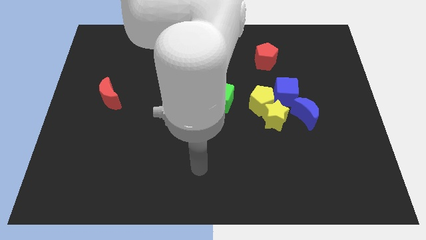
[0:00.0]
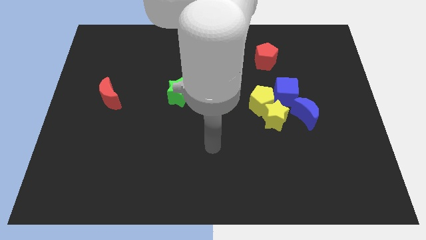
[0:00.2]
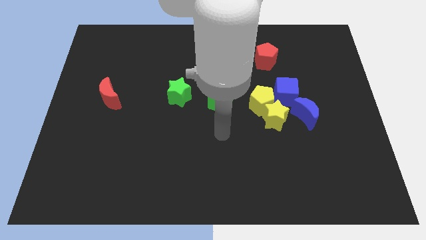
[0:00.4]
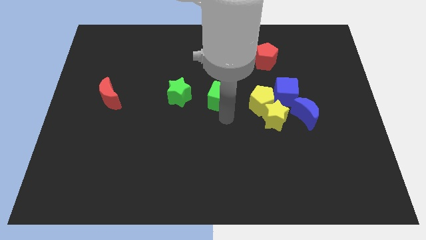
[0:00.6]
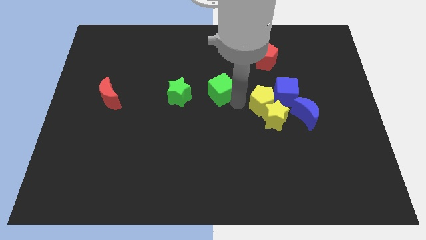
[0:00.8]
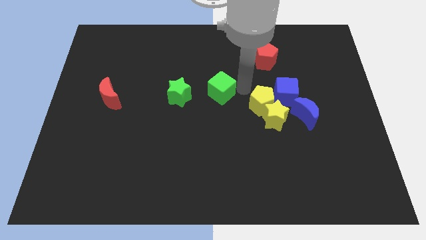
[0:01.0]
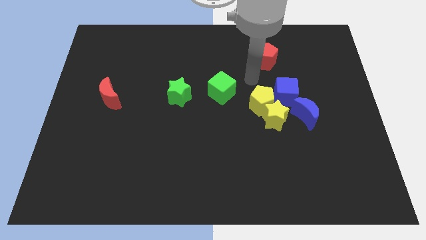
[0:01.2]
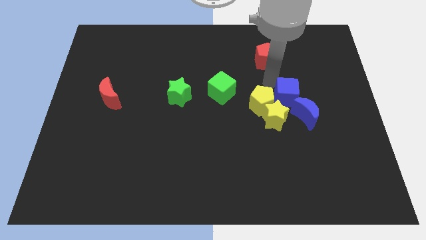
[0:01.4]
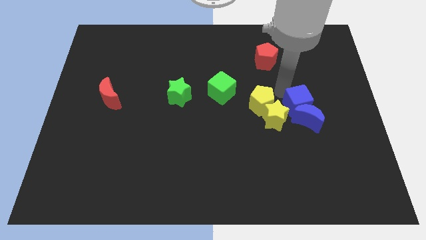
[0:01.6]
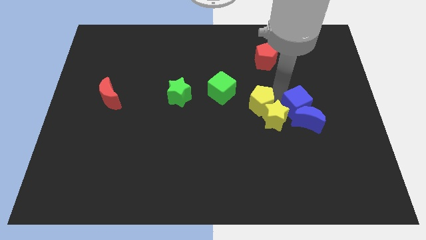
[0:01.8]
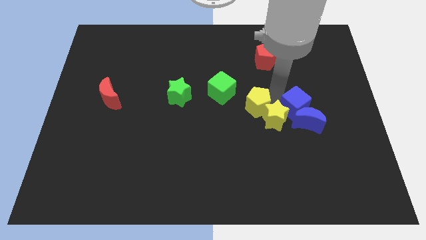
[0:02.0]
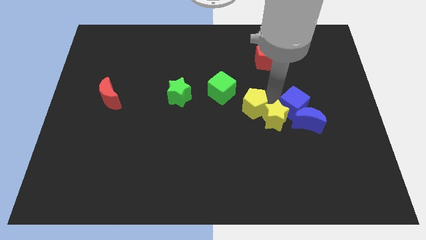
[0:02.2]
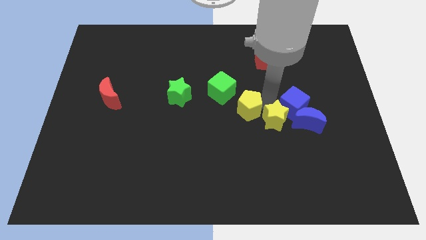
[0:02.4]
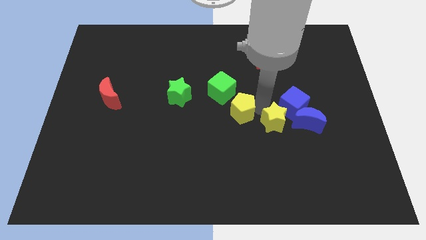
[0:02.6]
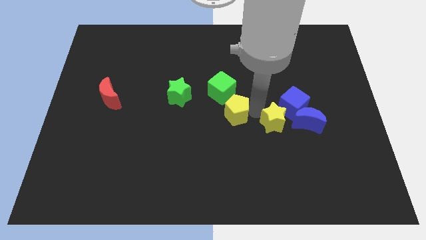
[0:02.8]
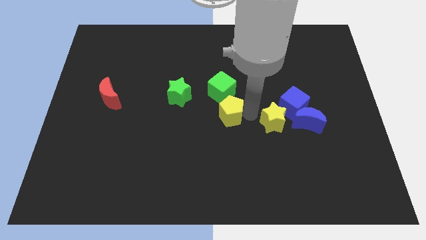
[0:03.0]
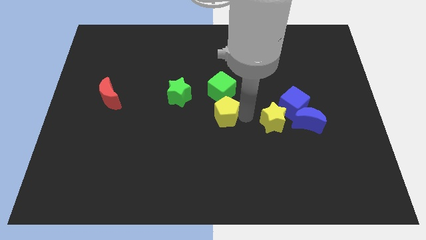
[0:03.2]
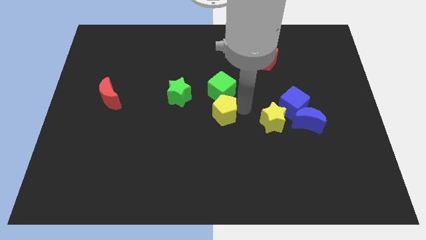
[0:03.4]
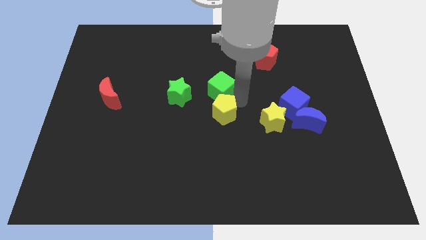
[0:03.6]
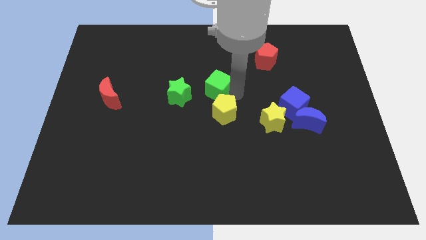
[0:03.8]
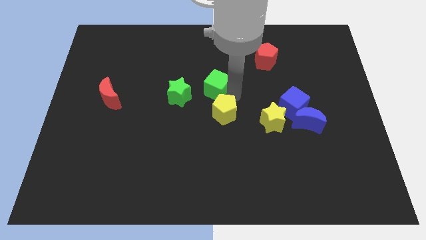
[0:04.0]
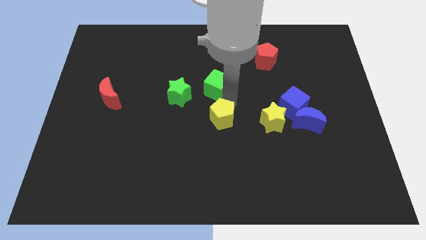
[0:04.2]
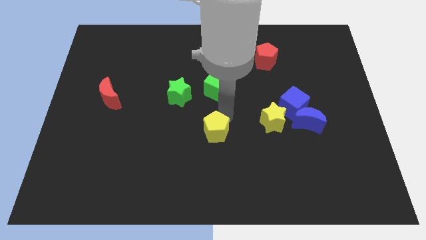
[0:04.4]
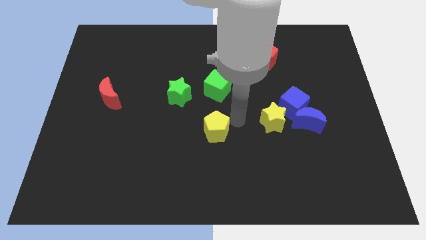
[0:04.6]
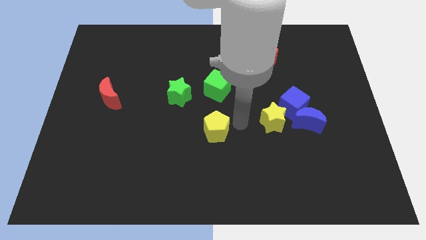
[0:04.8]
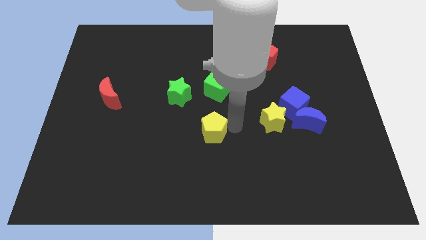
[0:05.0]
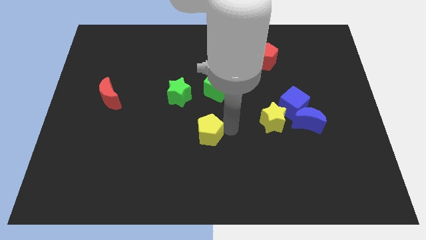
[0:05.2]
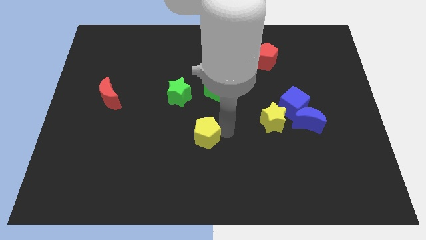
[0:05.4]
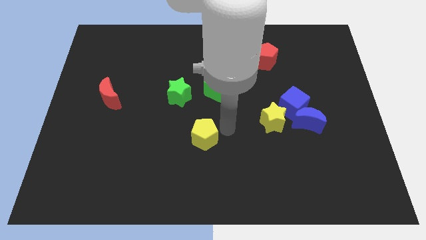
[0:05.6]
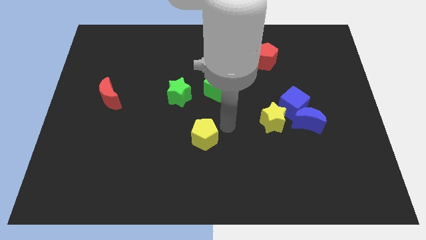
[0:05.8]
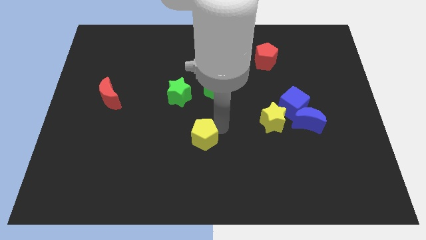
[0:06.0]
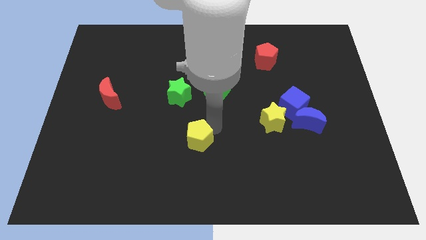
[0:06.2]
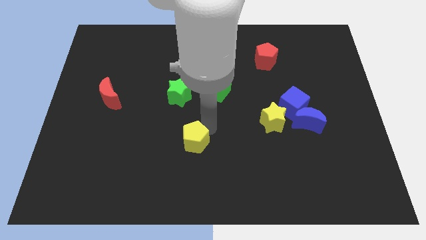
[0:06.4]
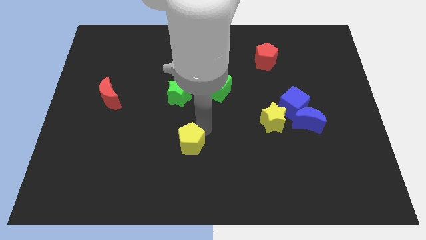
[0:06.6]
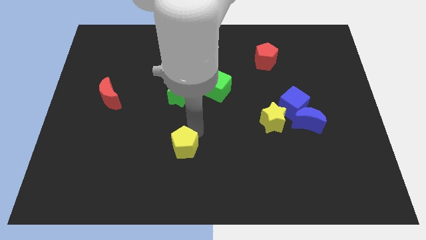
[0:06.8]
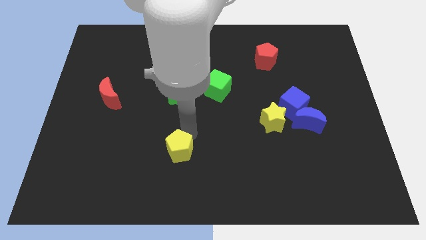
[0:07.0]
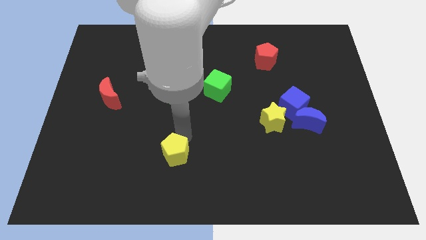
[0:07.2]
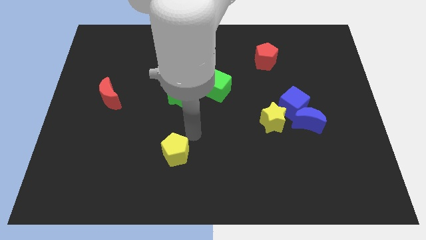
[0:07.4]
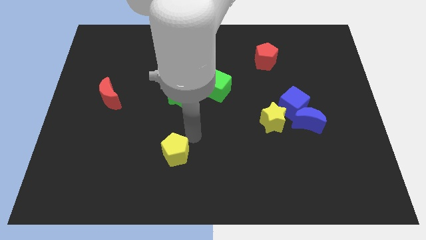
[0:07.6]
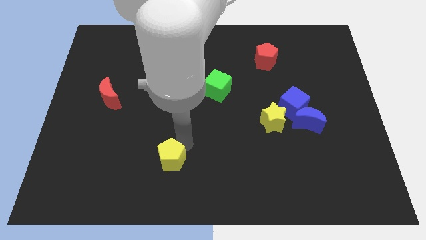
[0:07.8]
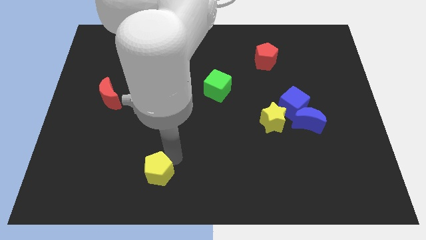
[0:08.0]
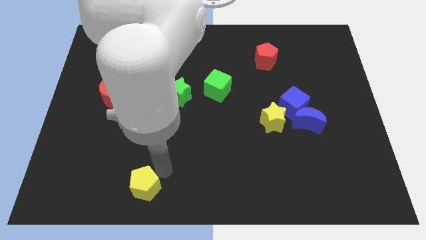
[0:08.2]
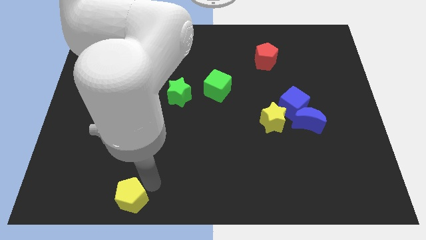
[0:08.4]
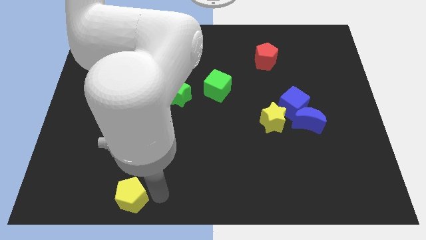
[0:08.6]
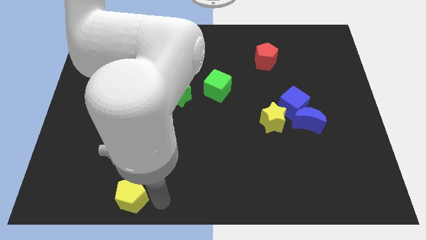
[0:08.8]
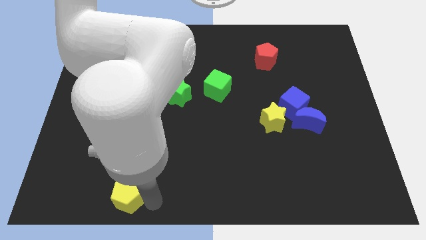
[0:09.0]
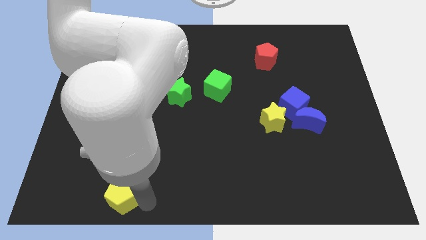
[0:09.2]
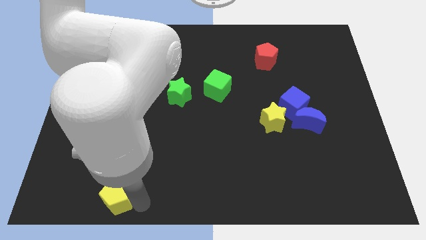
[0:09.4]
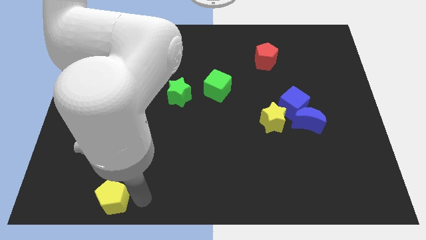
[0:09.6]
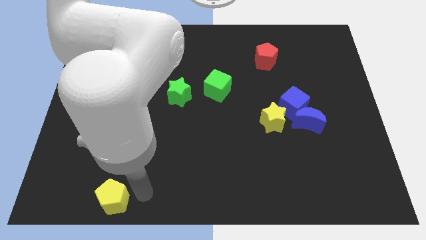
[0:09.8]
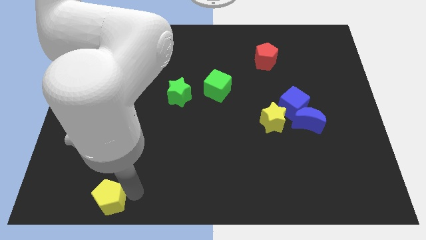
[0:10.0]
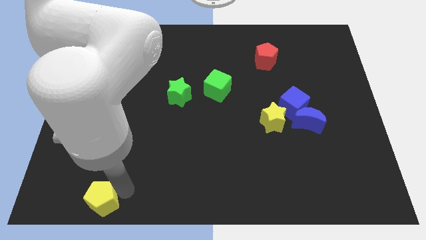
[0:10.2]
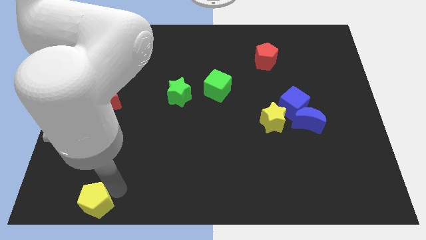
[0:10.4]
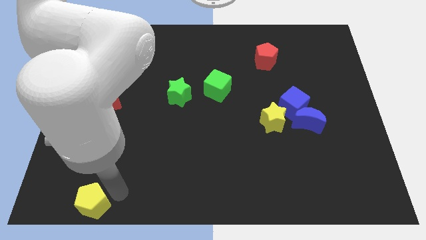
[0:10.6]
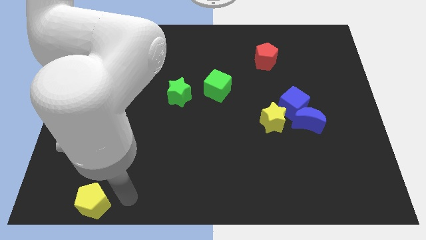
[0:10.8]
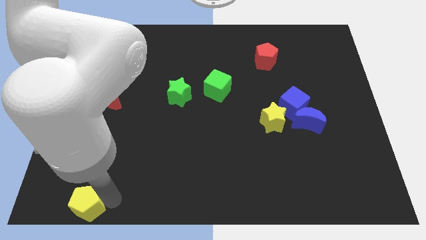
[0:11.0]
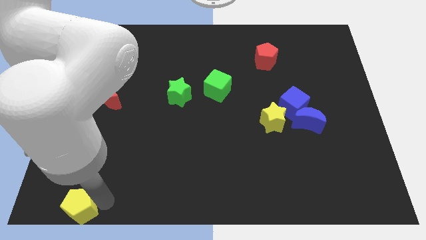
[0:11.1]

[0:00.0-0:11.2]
push the yellow pentagon to the bottom left of the board

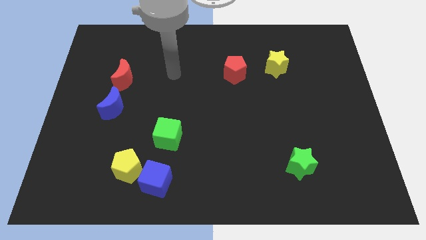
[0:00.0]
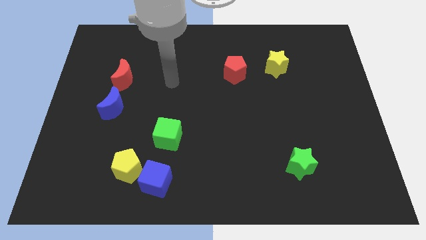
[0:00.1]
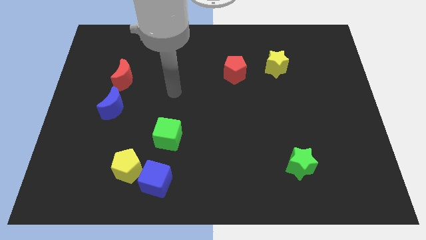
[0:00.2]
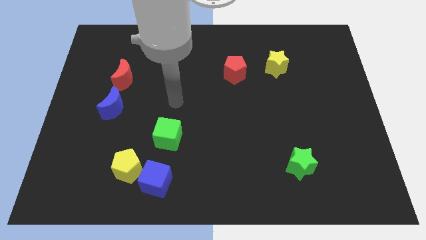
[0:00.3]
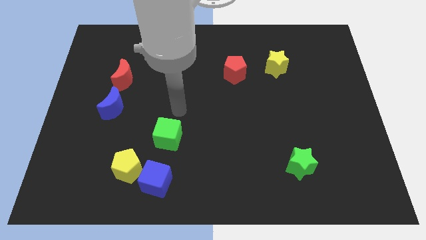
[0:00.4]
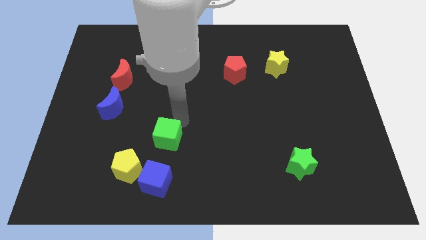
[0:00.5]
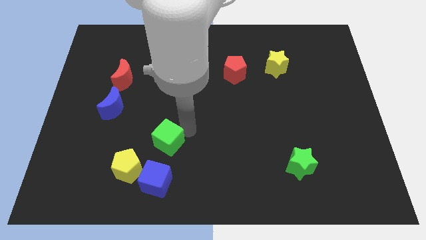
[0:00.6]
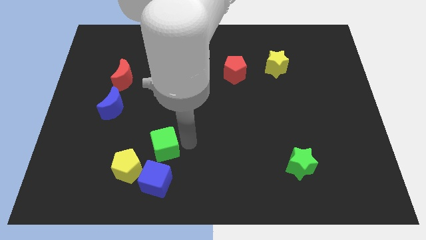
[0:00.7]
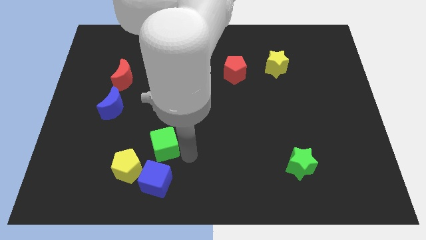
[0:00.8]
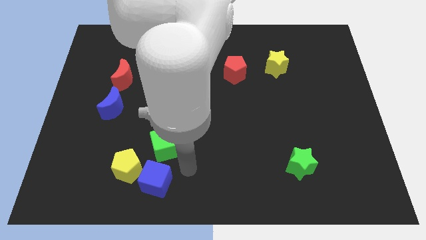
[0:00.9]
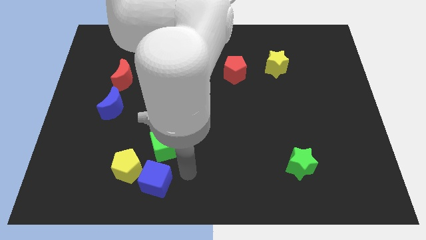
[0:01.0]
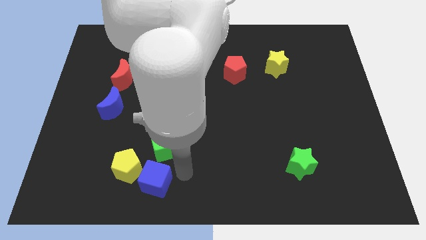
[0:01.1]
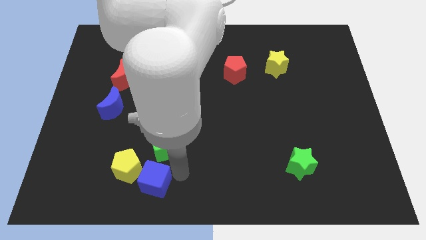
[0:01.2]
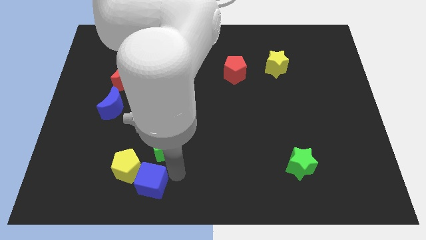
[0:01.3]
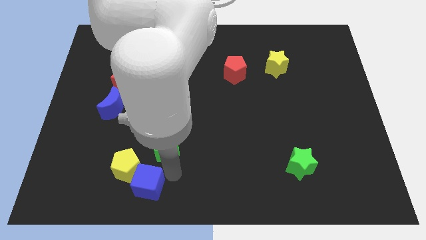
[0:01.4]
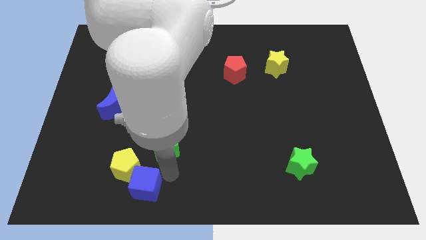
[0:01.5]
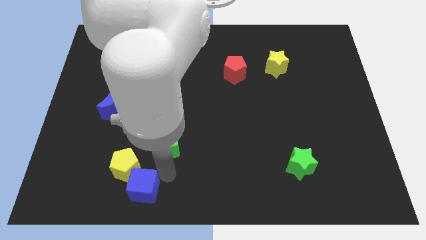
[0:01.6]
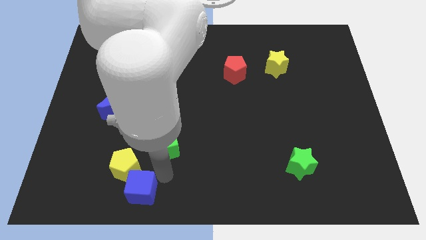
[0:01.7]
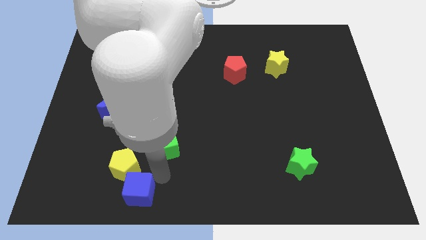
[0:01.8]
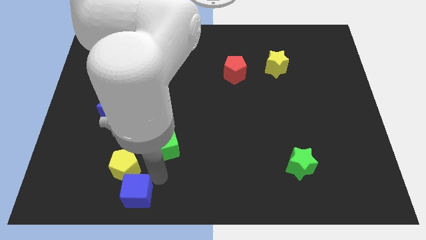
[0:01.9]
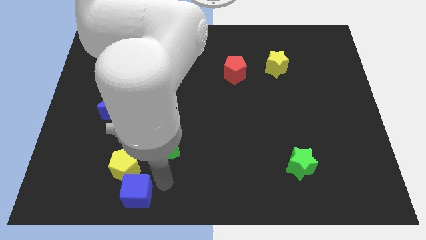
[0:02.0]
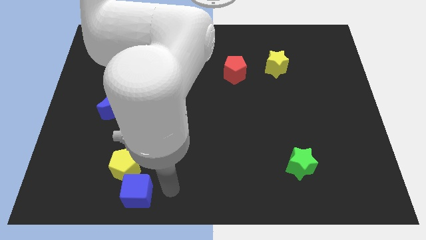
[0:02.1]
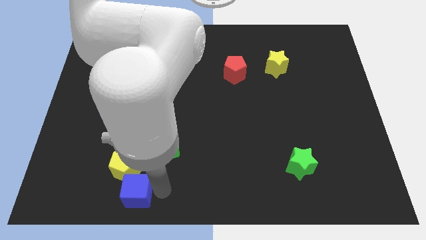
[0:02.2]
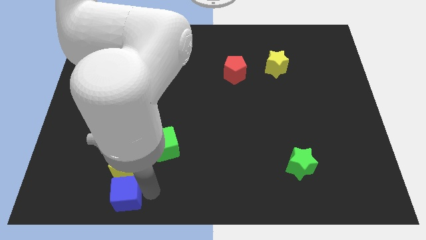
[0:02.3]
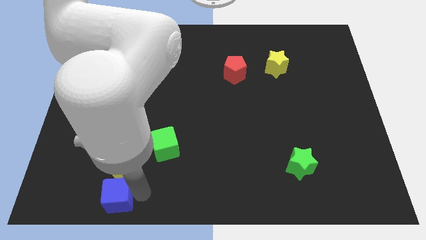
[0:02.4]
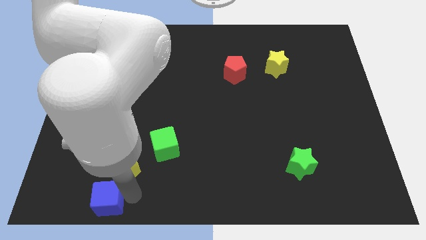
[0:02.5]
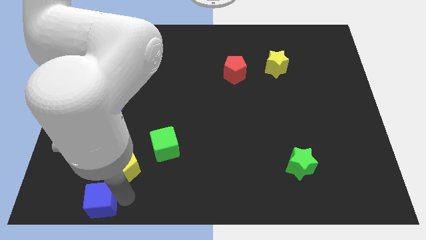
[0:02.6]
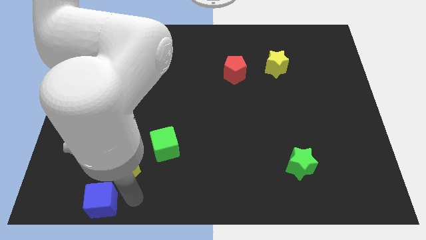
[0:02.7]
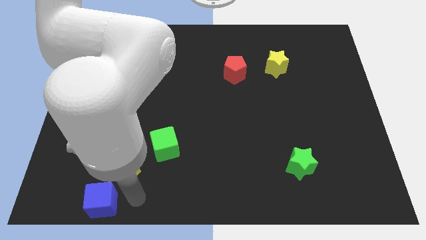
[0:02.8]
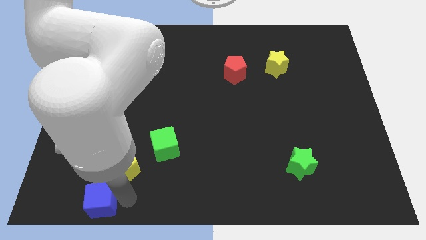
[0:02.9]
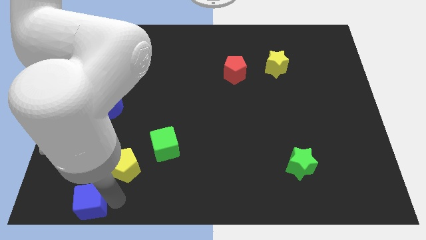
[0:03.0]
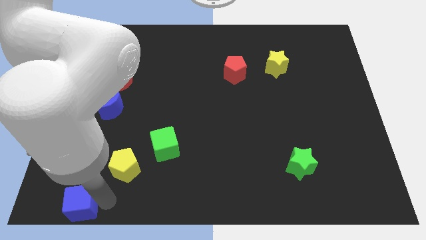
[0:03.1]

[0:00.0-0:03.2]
slide the blue cube to the lower left corner
